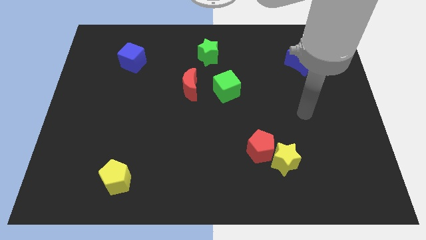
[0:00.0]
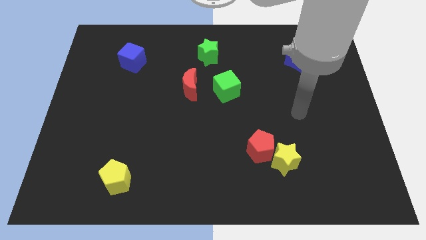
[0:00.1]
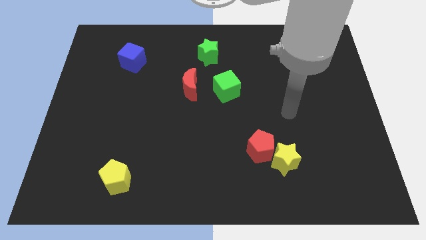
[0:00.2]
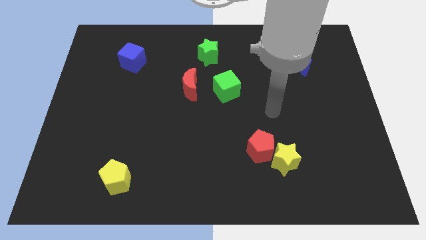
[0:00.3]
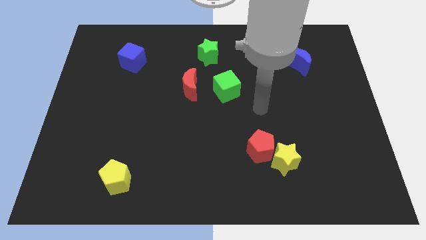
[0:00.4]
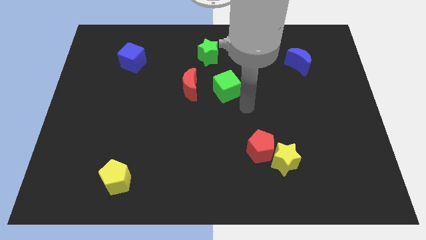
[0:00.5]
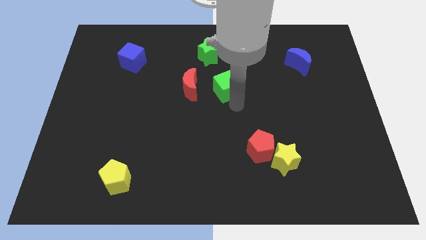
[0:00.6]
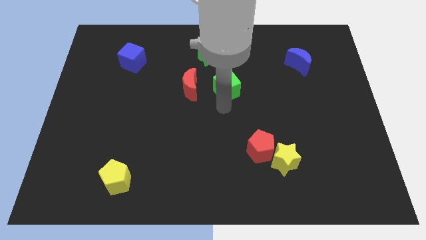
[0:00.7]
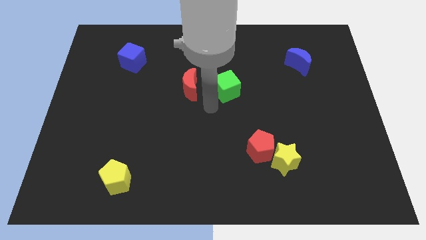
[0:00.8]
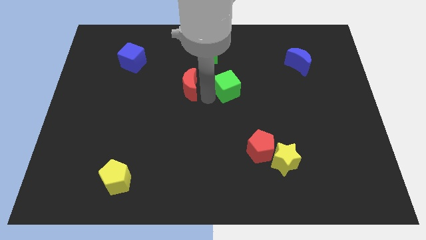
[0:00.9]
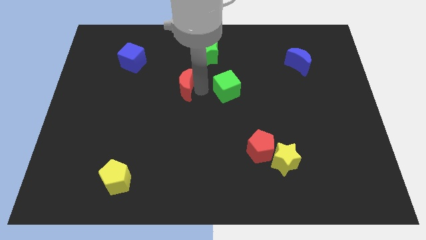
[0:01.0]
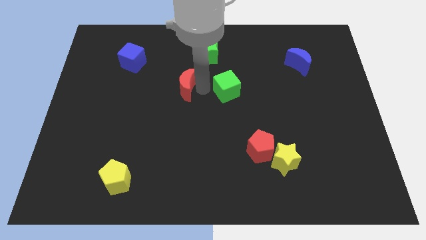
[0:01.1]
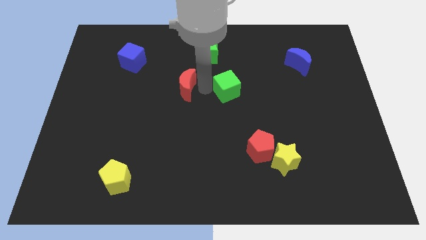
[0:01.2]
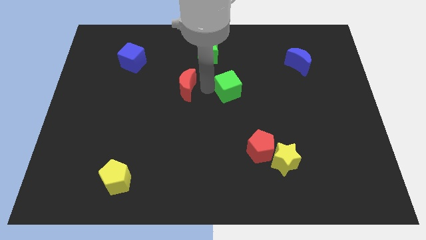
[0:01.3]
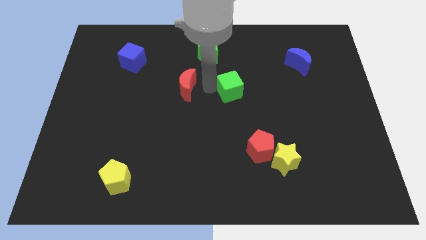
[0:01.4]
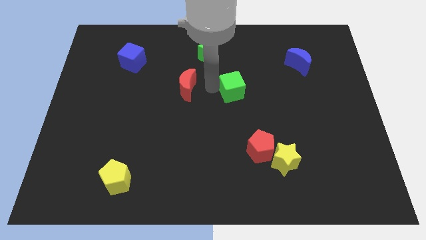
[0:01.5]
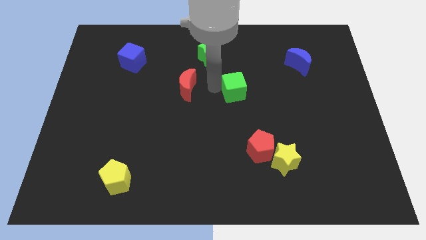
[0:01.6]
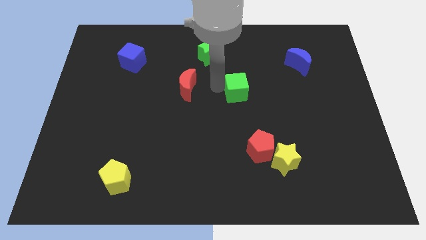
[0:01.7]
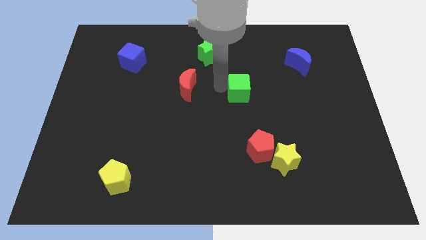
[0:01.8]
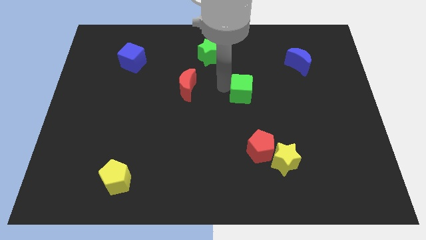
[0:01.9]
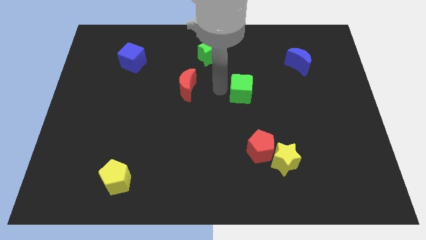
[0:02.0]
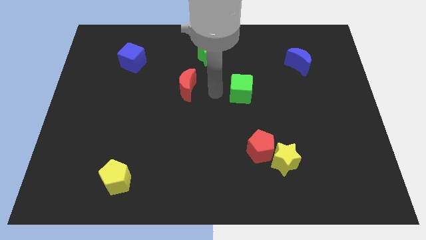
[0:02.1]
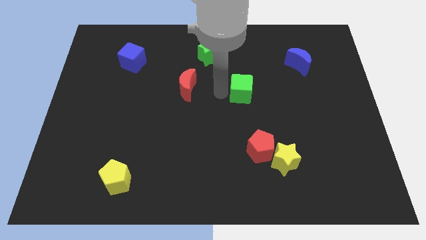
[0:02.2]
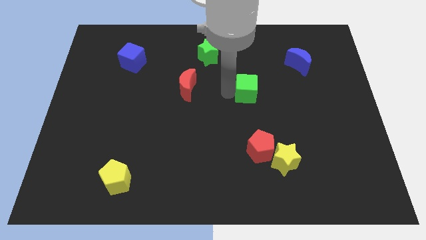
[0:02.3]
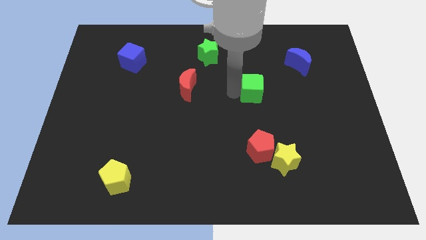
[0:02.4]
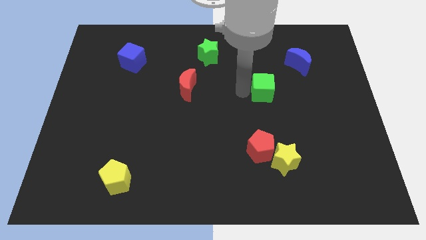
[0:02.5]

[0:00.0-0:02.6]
slightly move the green cube to the right

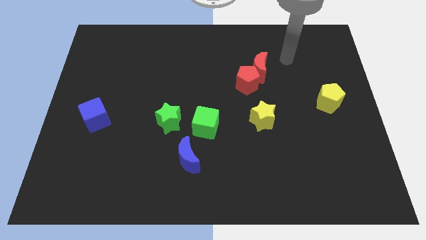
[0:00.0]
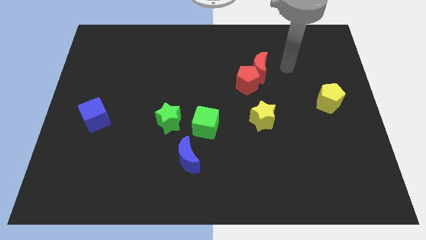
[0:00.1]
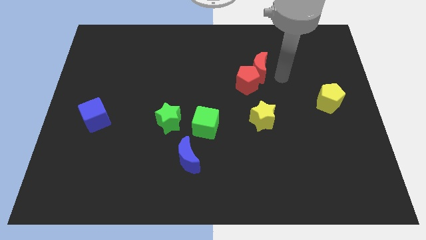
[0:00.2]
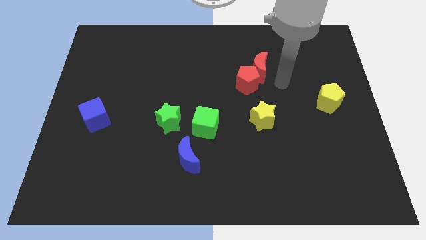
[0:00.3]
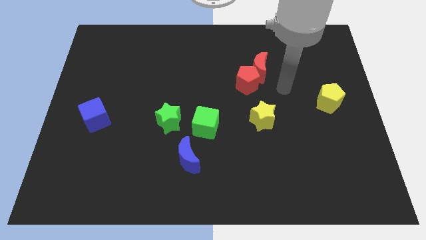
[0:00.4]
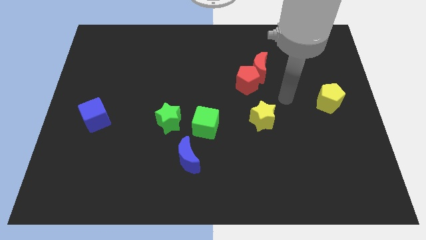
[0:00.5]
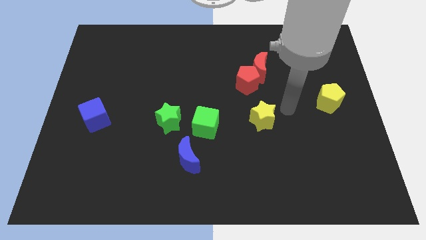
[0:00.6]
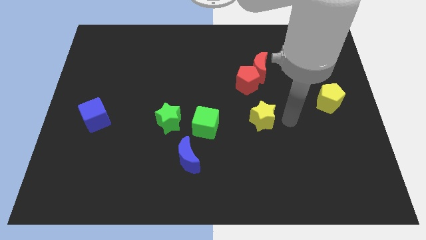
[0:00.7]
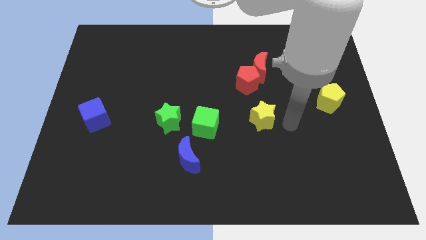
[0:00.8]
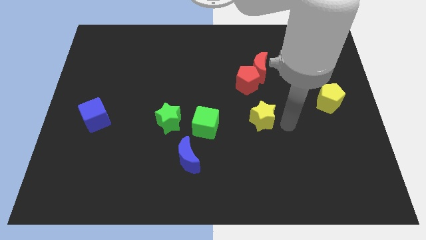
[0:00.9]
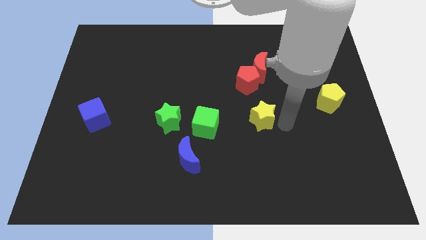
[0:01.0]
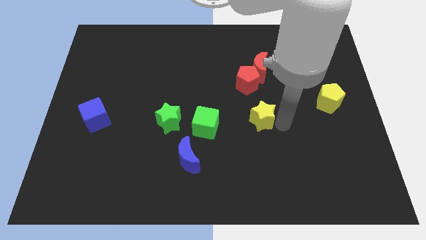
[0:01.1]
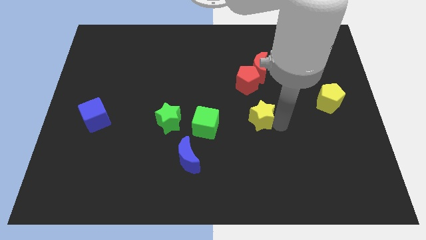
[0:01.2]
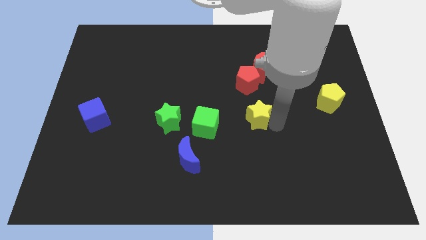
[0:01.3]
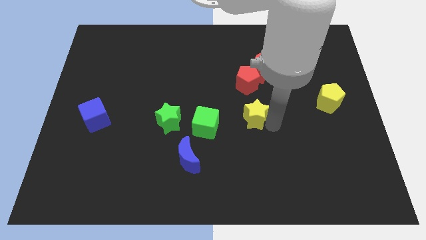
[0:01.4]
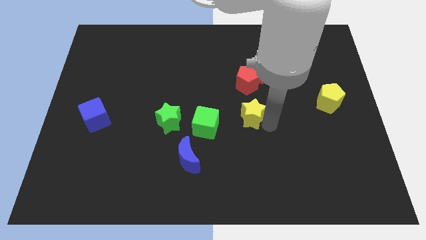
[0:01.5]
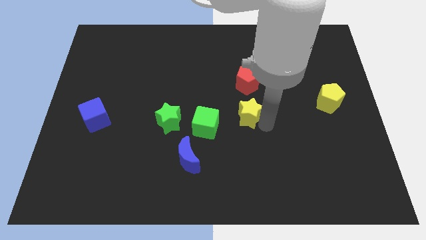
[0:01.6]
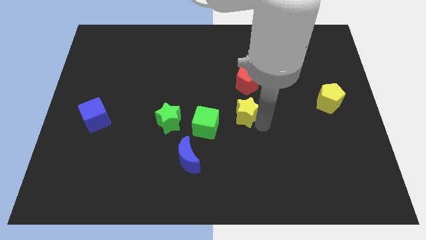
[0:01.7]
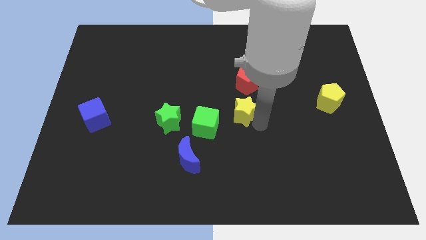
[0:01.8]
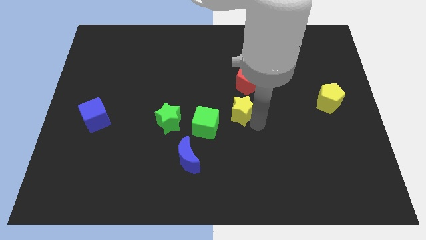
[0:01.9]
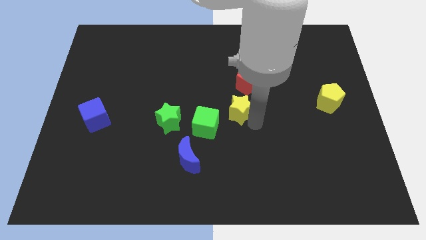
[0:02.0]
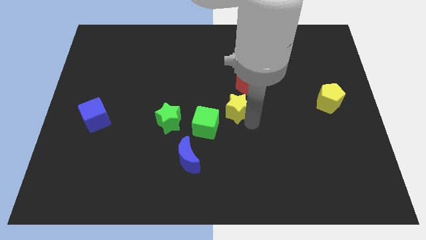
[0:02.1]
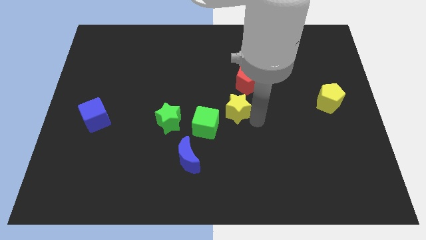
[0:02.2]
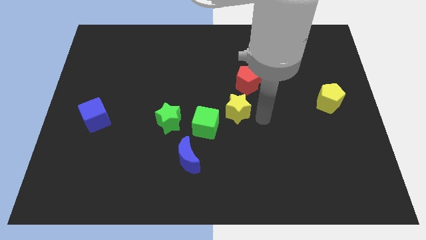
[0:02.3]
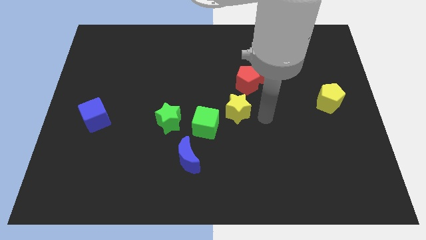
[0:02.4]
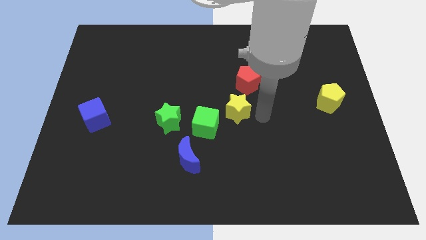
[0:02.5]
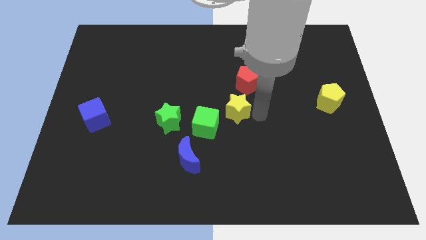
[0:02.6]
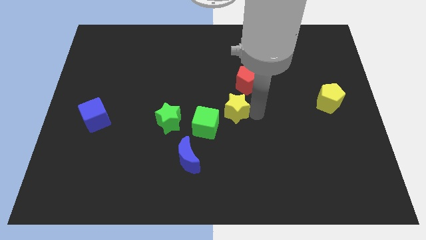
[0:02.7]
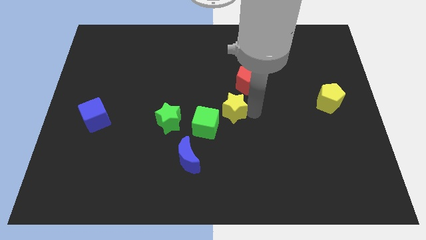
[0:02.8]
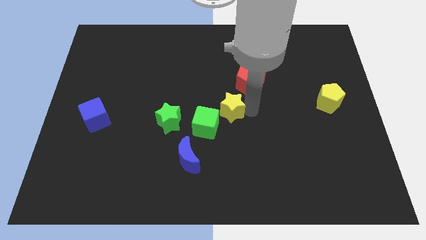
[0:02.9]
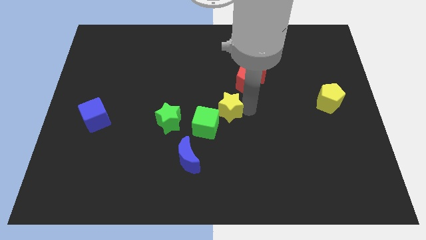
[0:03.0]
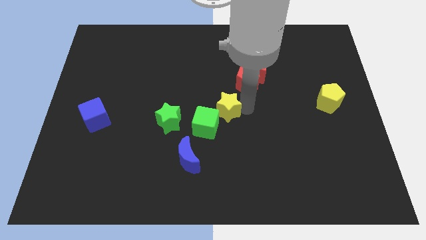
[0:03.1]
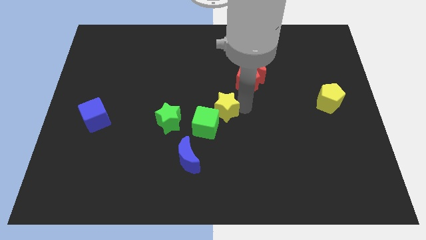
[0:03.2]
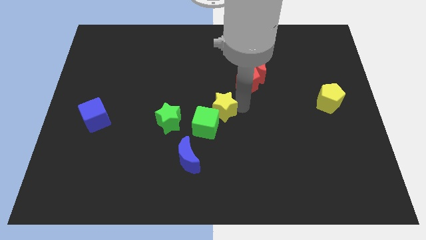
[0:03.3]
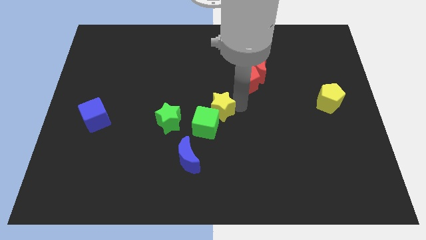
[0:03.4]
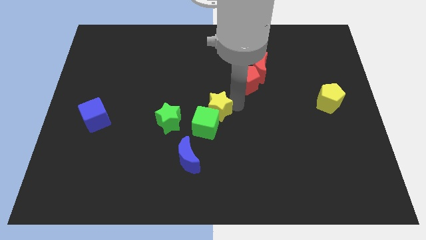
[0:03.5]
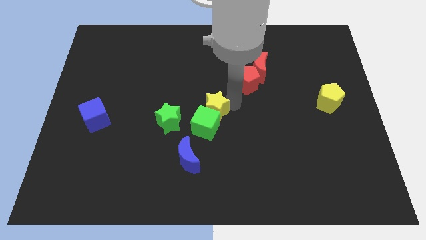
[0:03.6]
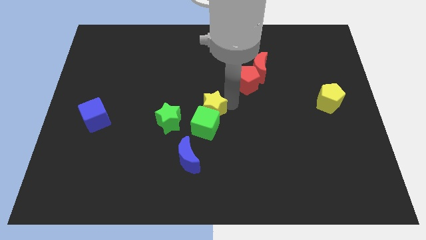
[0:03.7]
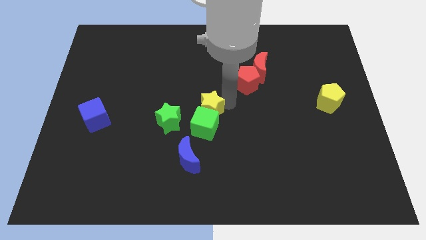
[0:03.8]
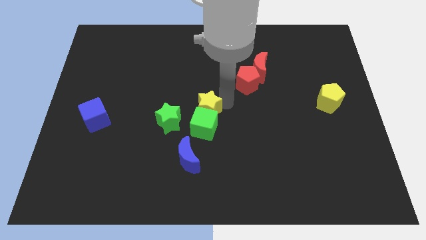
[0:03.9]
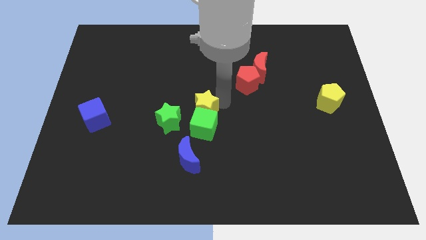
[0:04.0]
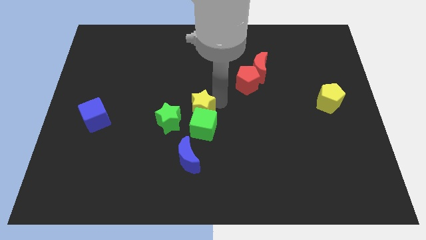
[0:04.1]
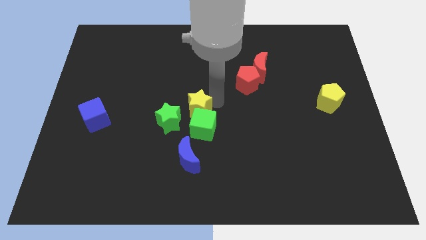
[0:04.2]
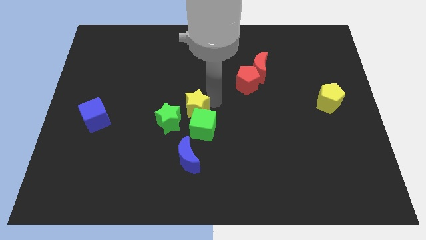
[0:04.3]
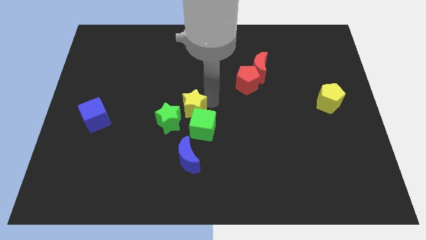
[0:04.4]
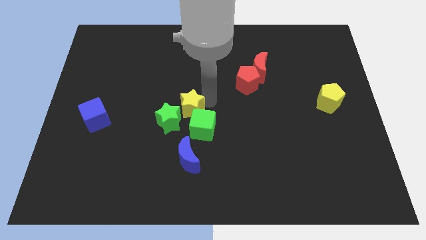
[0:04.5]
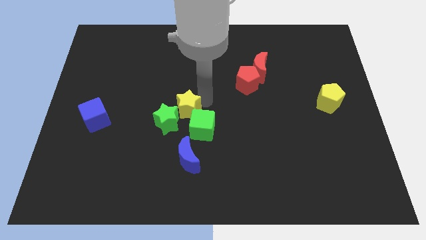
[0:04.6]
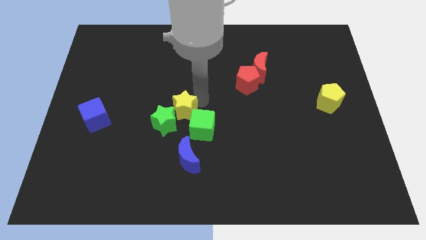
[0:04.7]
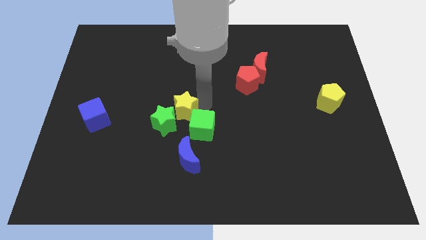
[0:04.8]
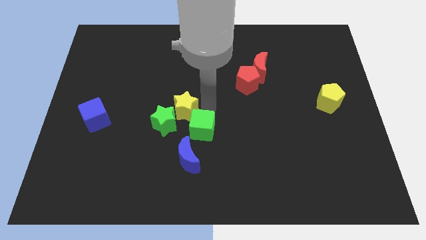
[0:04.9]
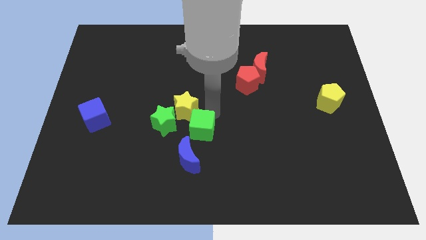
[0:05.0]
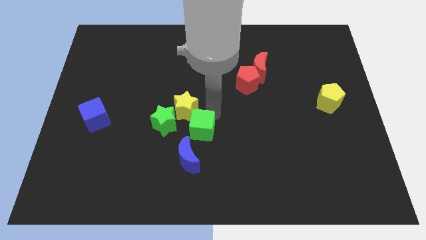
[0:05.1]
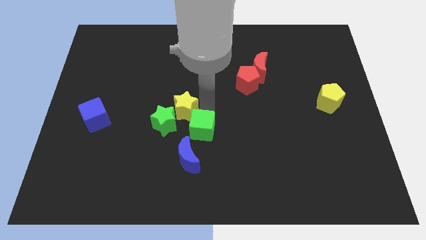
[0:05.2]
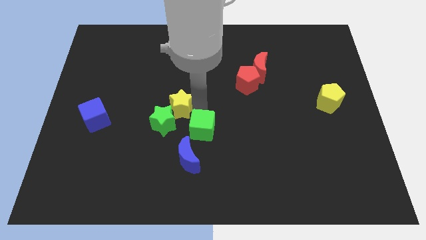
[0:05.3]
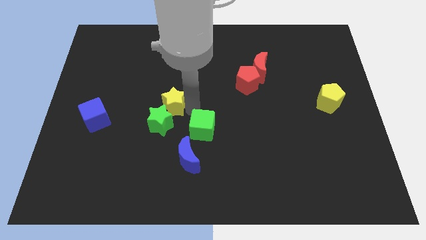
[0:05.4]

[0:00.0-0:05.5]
push the yellow star to the left

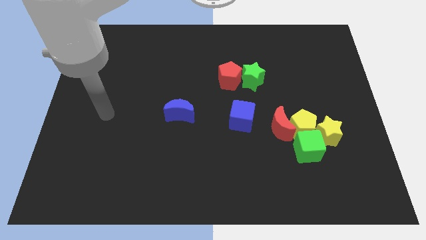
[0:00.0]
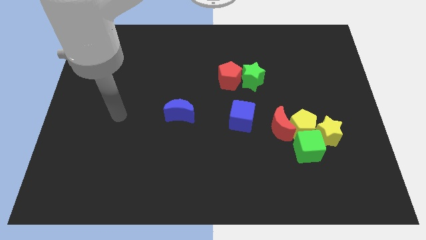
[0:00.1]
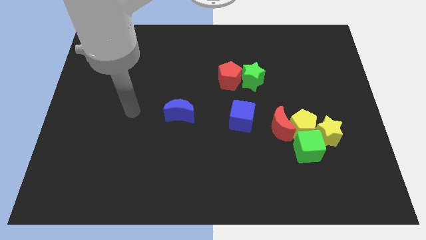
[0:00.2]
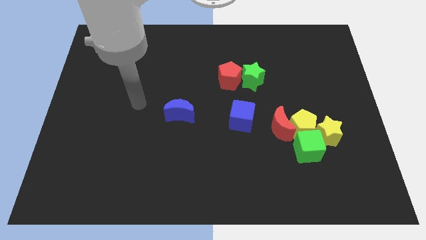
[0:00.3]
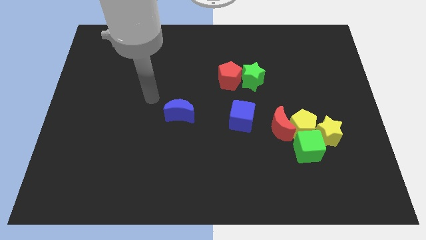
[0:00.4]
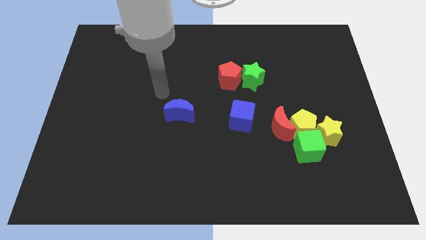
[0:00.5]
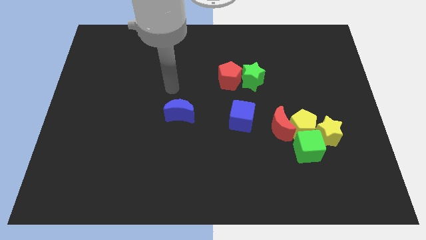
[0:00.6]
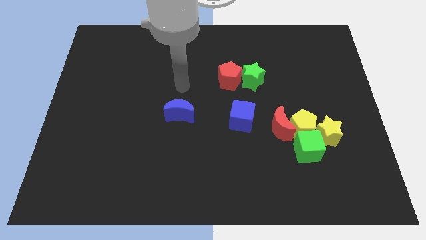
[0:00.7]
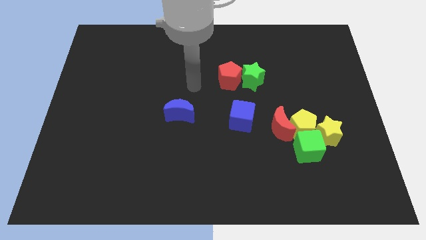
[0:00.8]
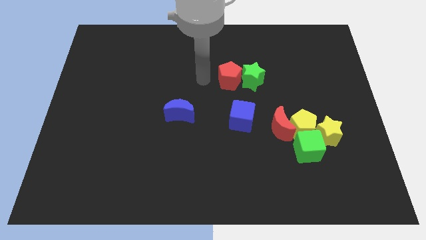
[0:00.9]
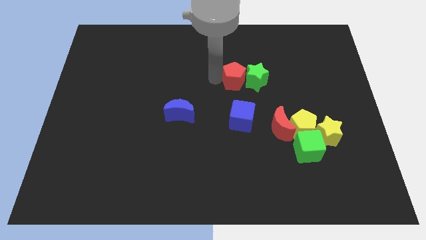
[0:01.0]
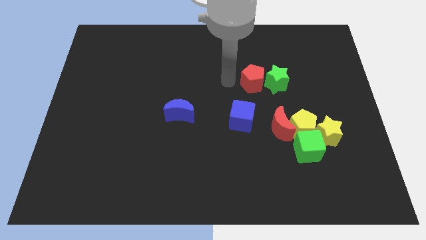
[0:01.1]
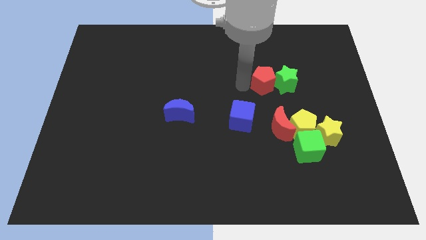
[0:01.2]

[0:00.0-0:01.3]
slightly push the green star to the right
